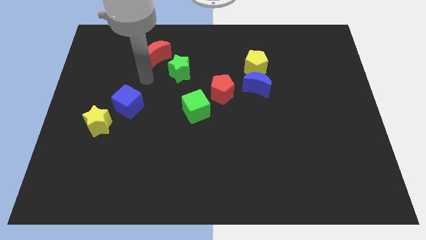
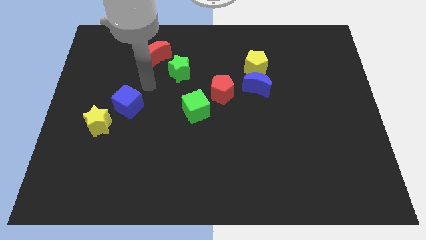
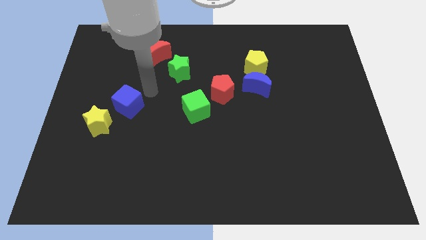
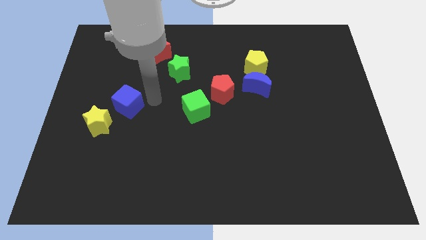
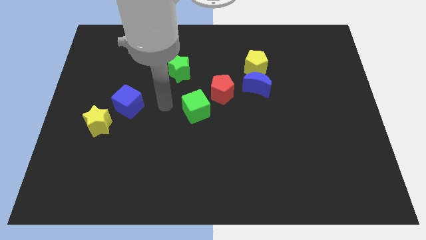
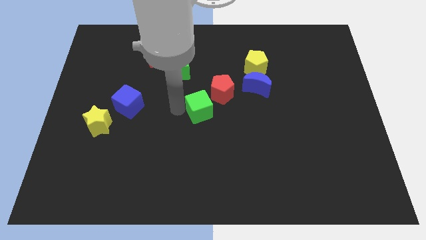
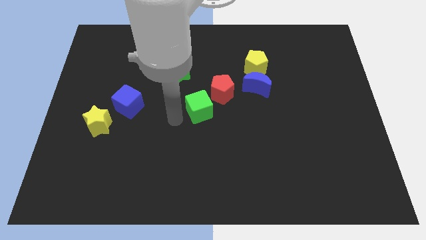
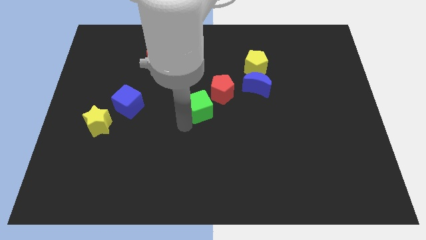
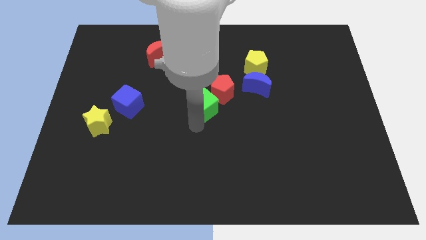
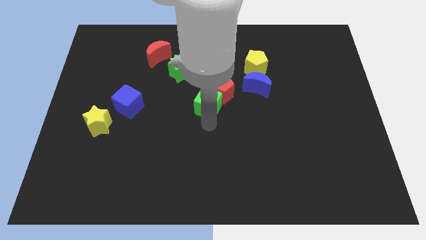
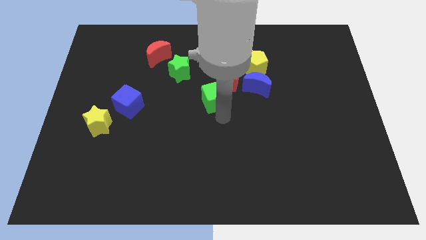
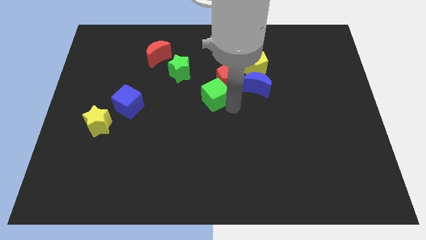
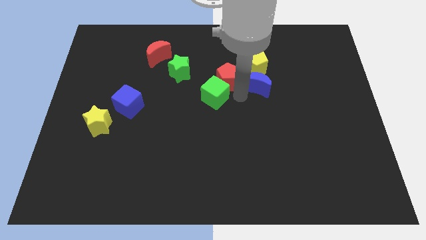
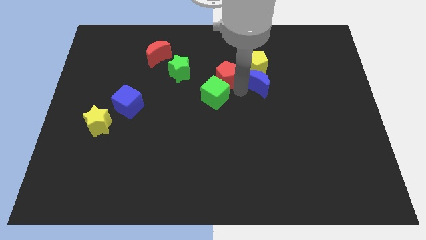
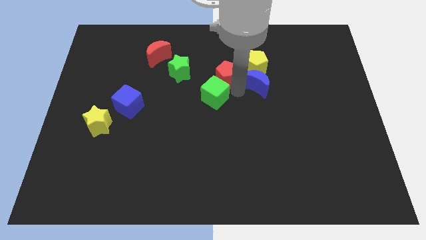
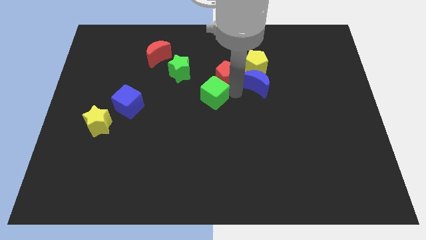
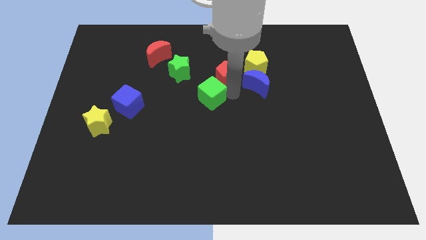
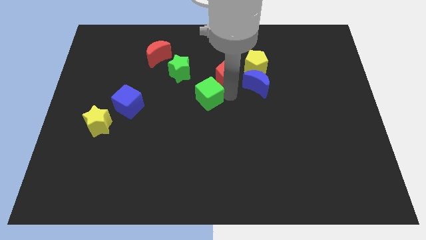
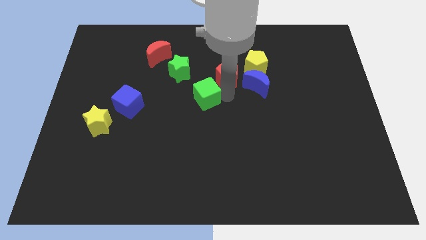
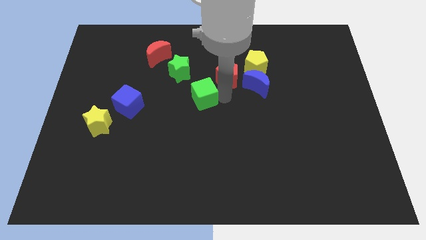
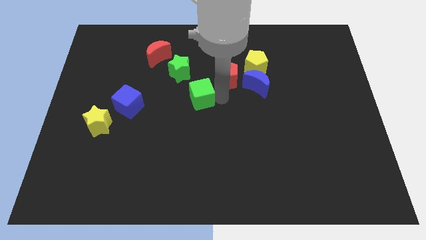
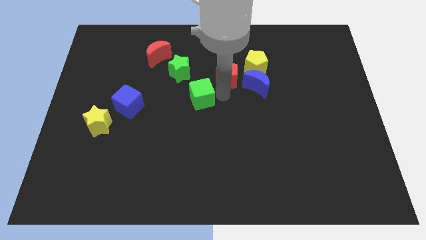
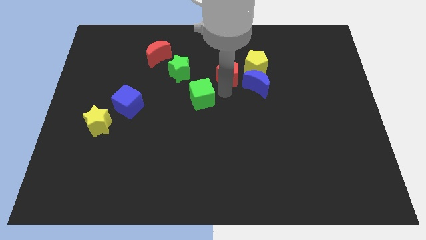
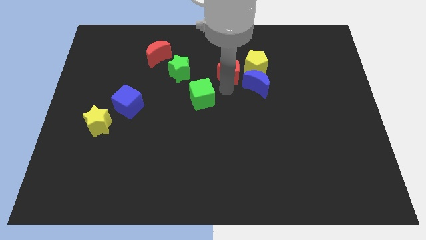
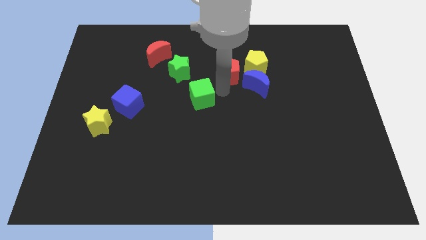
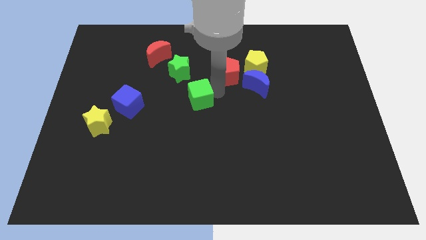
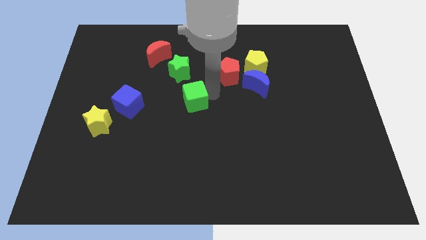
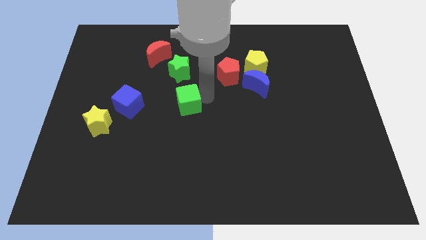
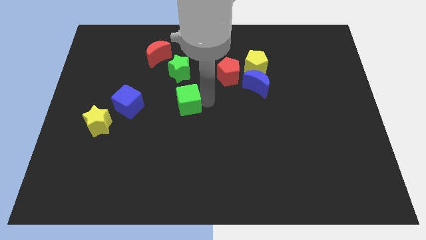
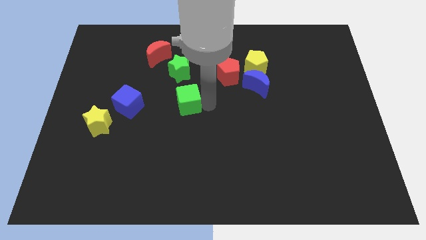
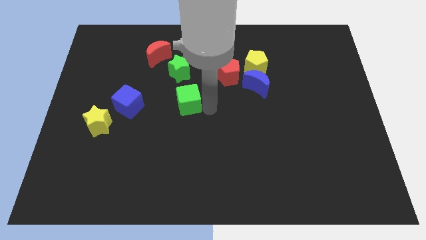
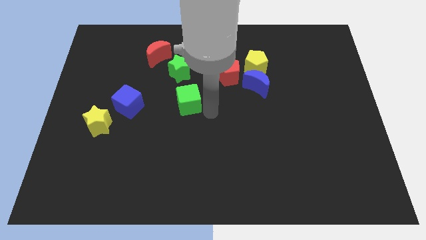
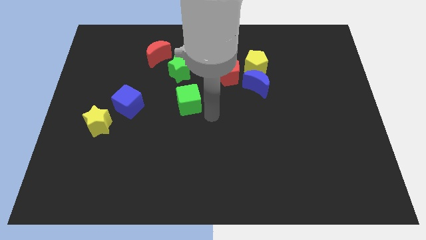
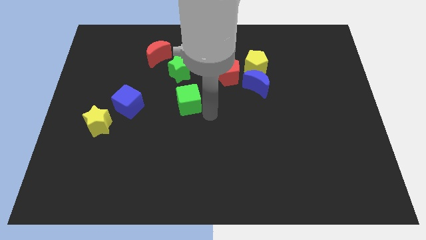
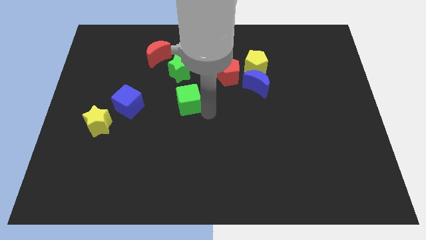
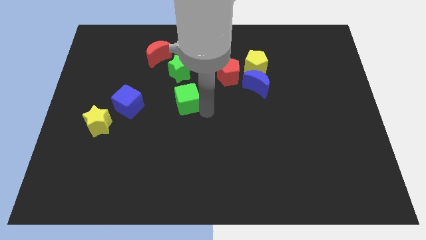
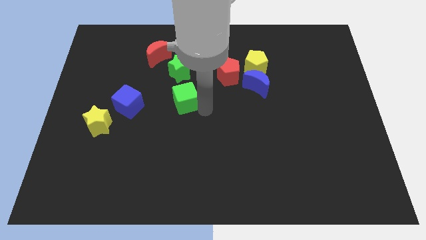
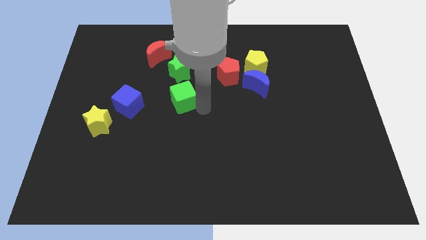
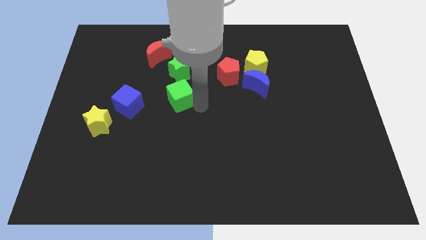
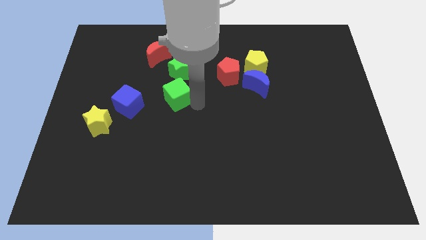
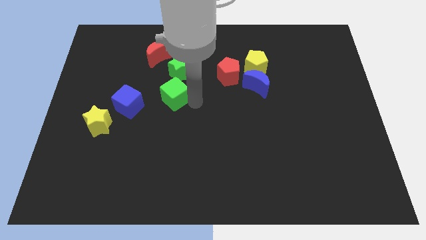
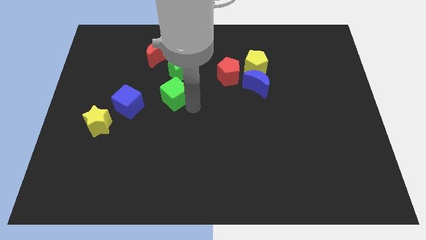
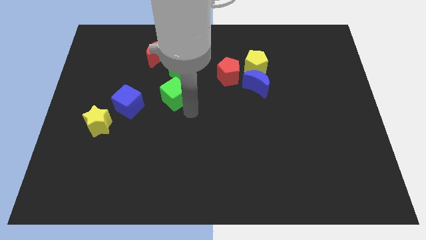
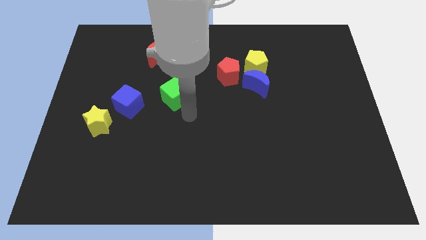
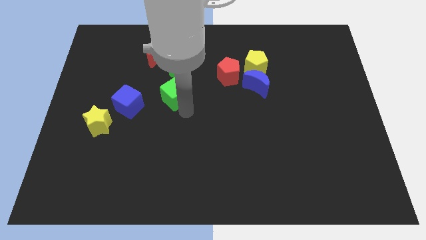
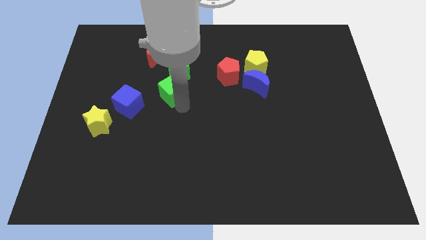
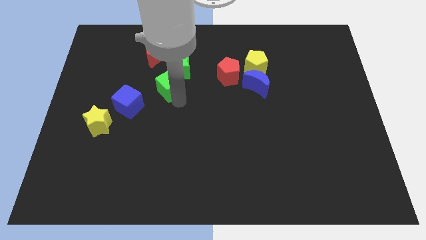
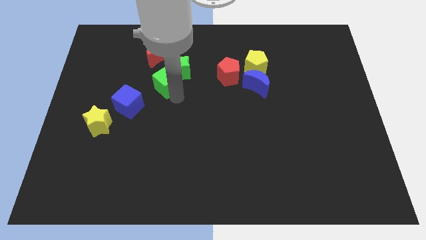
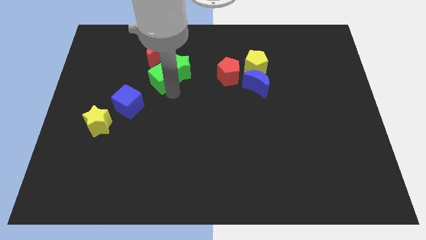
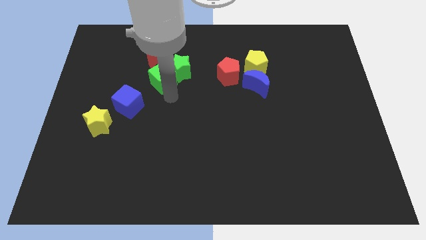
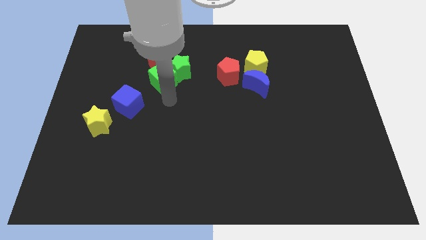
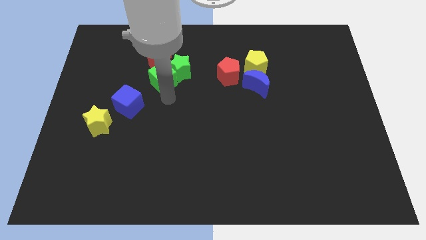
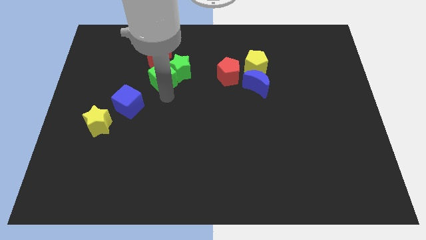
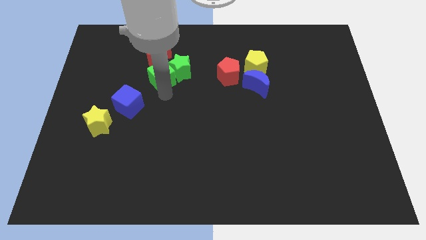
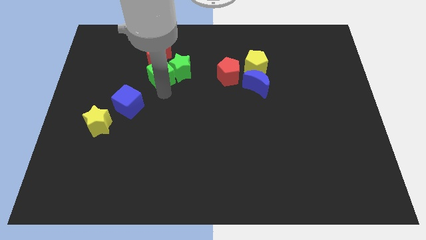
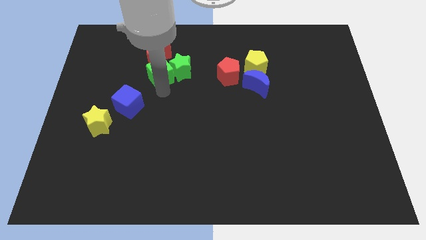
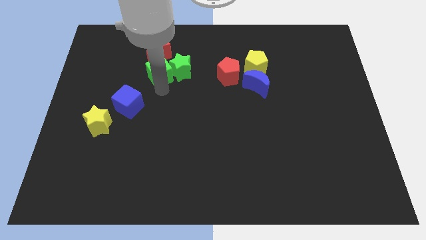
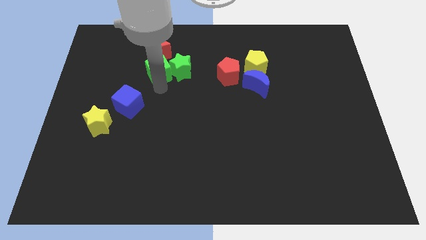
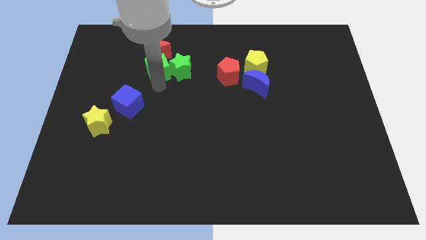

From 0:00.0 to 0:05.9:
push the green cube next to the red moon

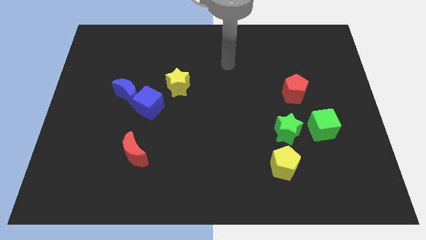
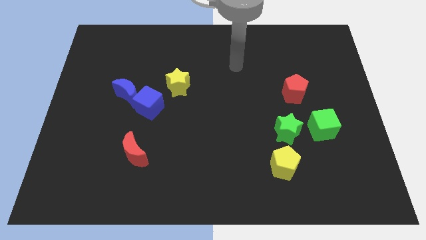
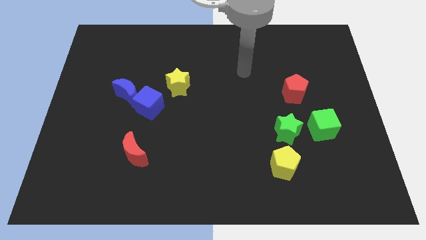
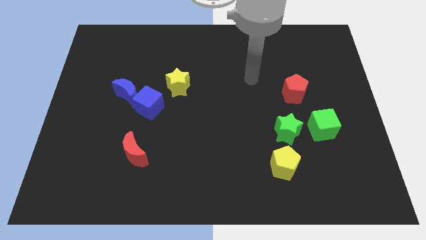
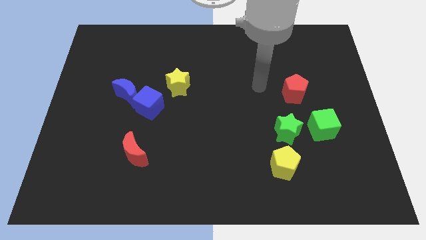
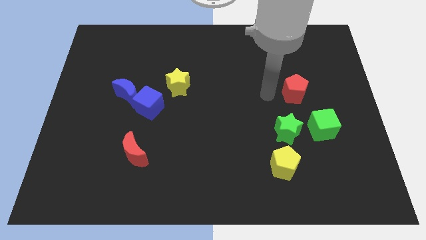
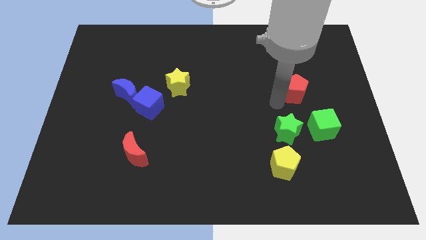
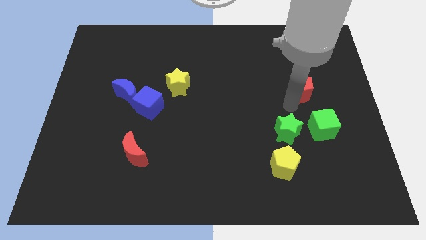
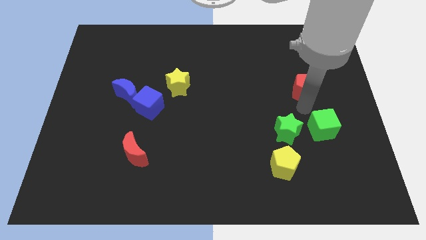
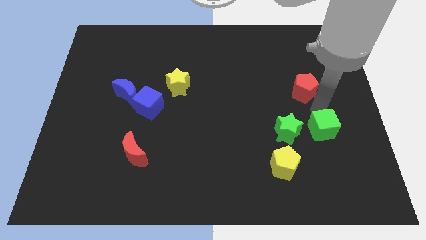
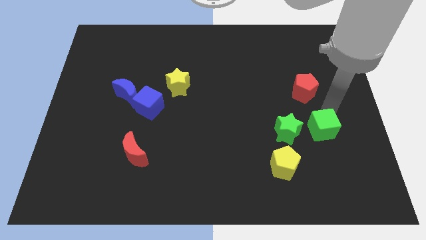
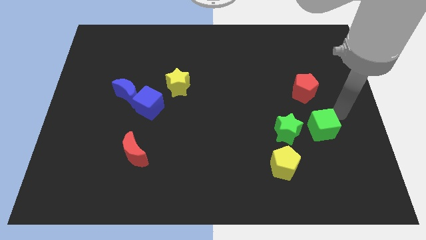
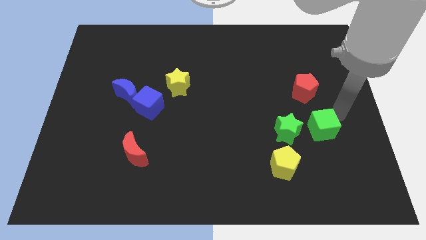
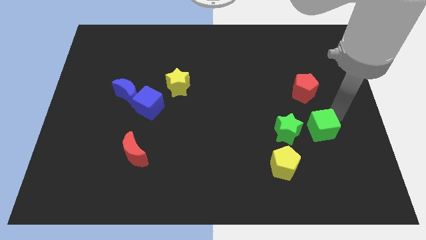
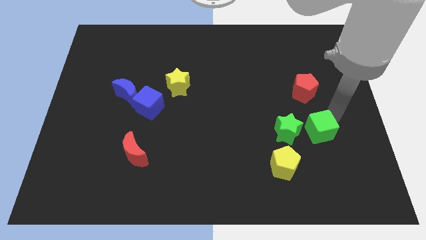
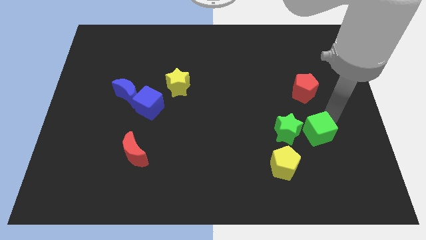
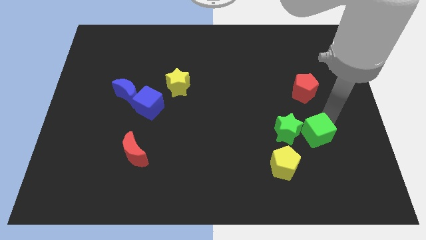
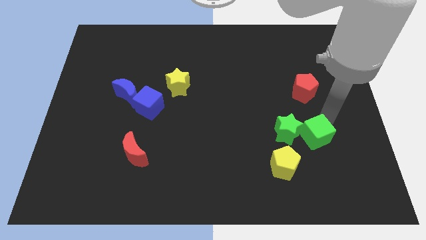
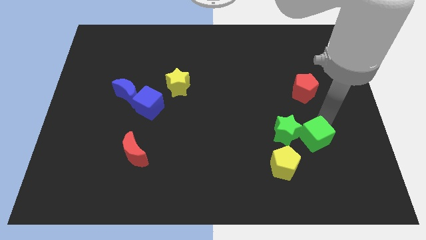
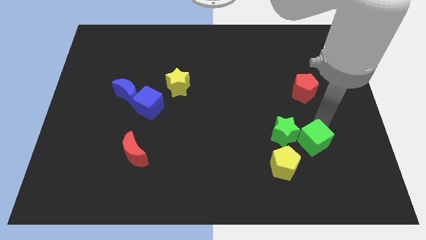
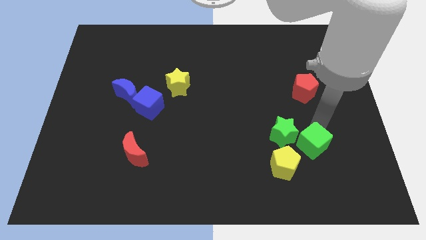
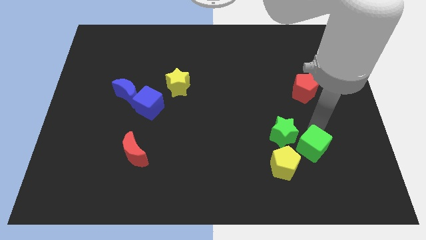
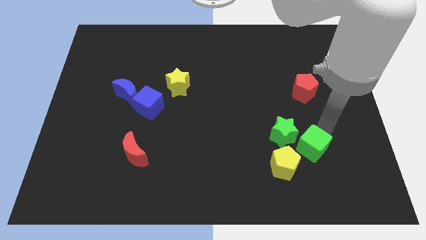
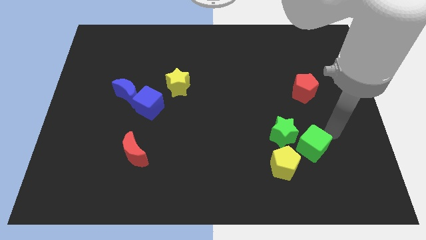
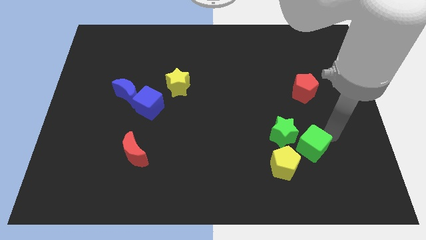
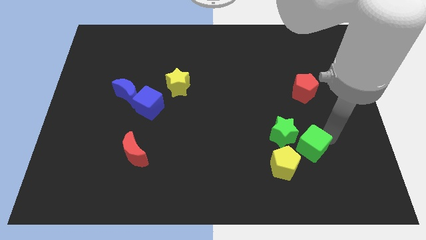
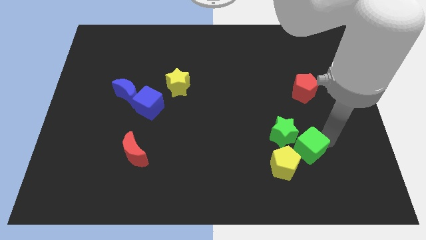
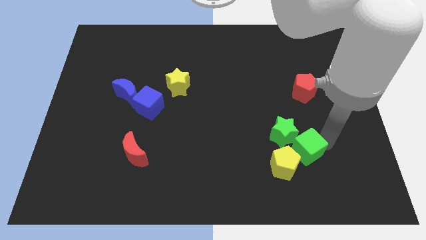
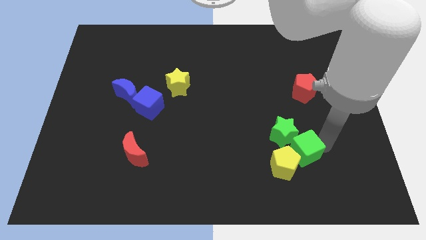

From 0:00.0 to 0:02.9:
slide the green cube to the yellow pentagon
